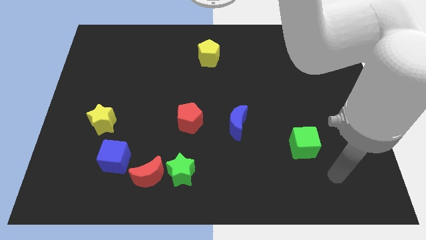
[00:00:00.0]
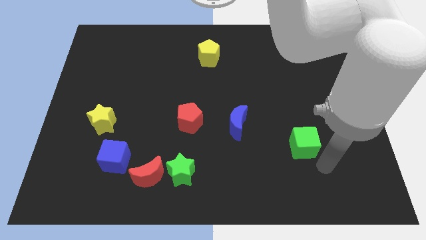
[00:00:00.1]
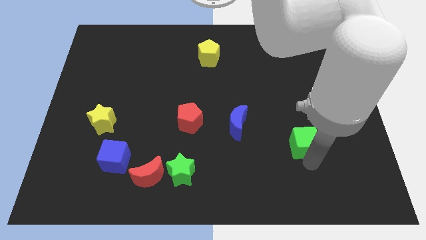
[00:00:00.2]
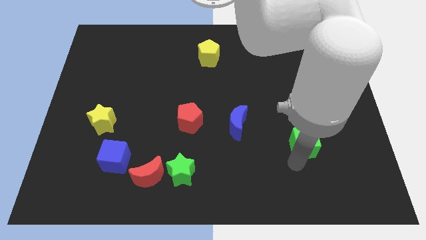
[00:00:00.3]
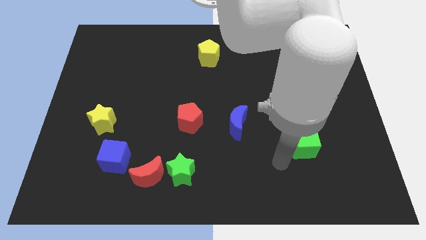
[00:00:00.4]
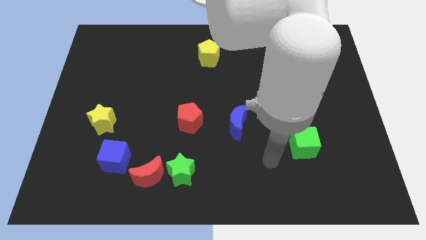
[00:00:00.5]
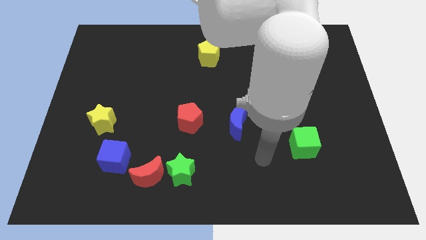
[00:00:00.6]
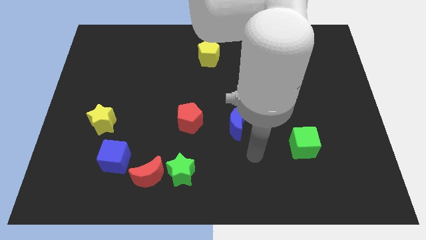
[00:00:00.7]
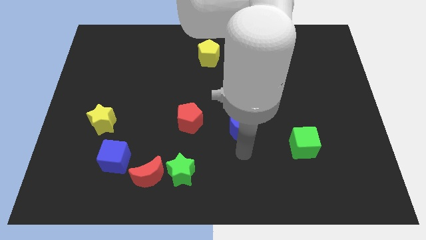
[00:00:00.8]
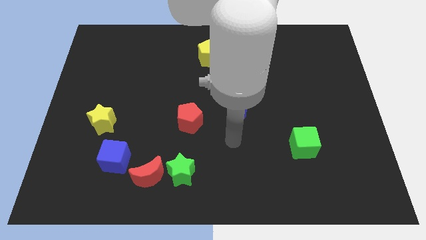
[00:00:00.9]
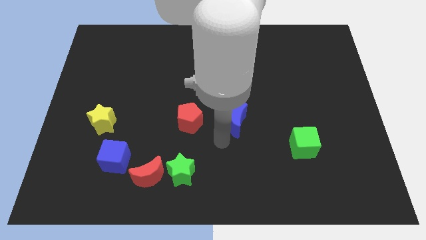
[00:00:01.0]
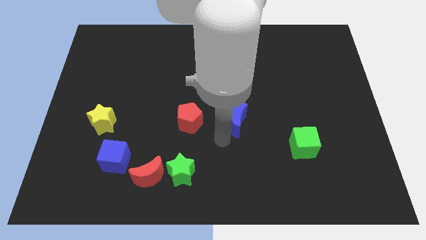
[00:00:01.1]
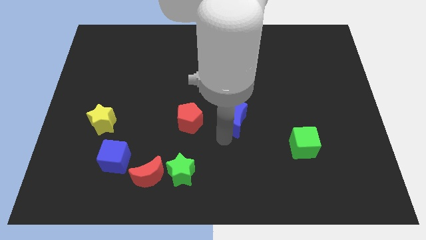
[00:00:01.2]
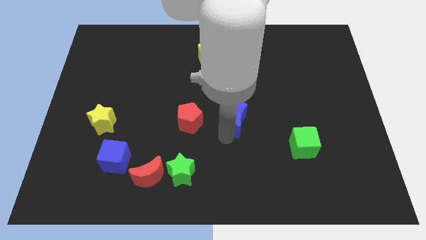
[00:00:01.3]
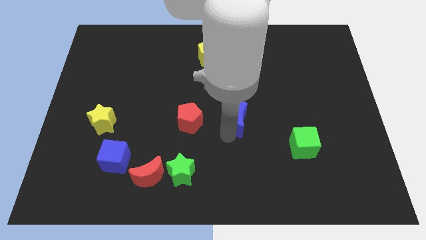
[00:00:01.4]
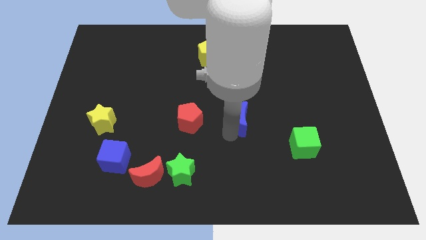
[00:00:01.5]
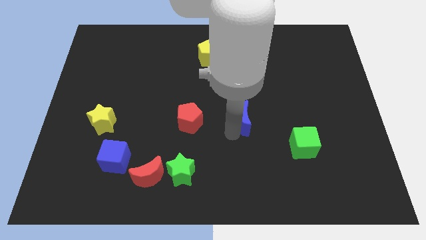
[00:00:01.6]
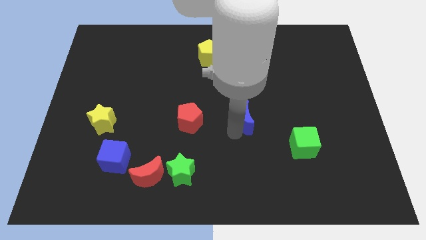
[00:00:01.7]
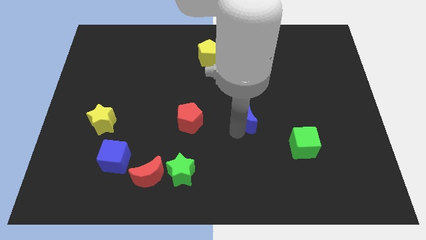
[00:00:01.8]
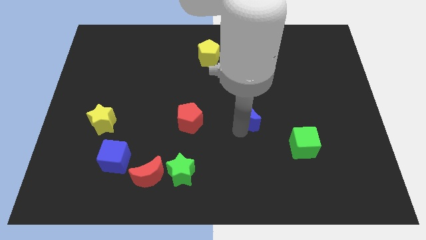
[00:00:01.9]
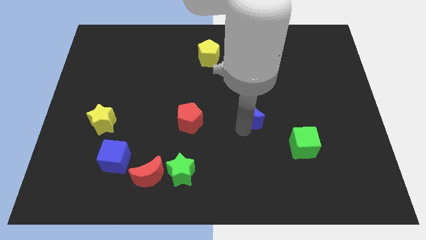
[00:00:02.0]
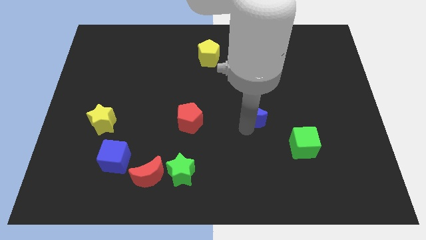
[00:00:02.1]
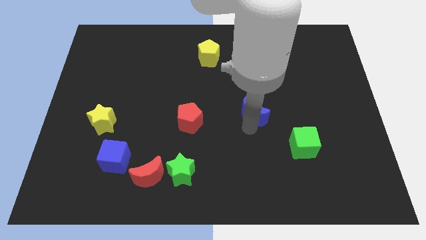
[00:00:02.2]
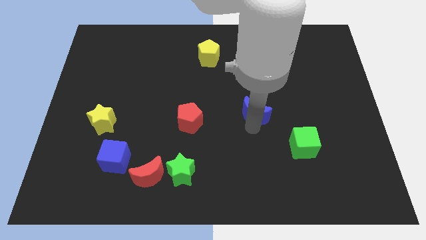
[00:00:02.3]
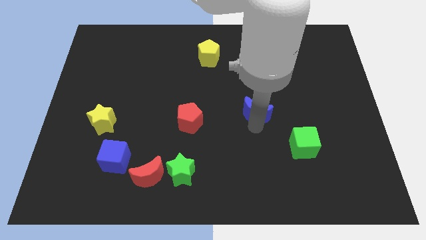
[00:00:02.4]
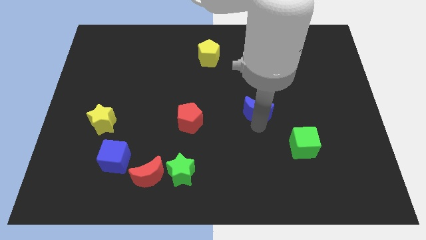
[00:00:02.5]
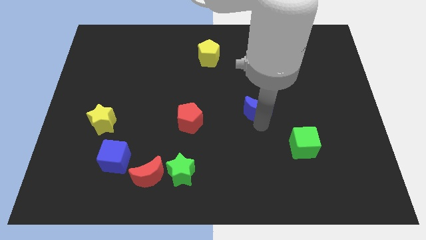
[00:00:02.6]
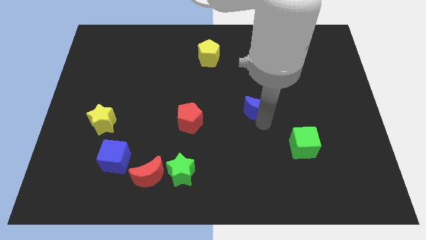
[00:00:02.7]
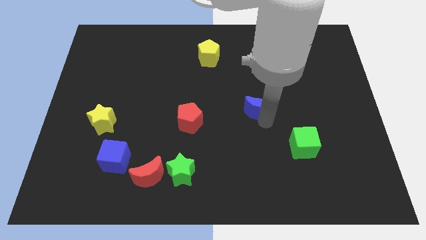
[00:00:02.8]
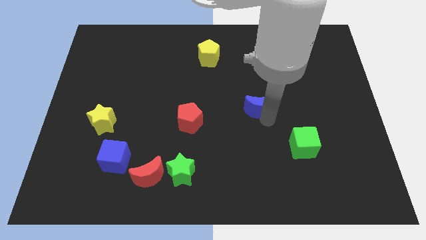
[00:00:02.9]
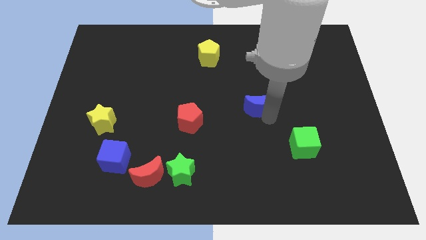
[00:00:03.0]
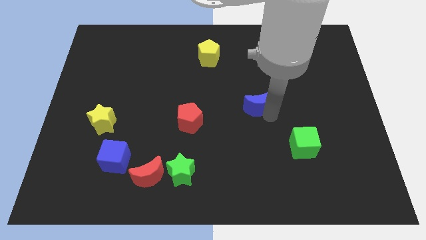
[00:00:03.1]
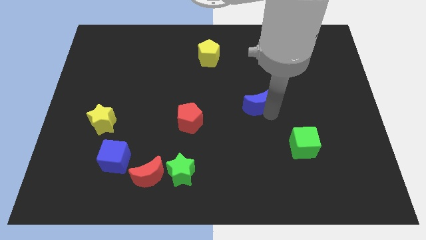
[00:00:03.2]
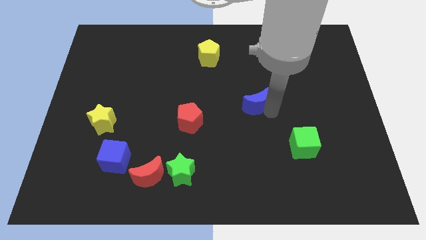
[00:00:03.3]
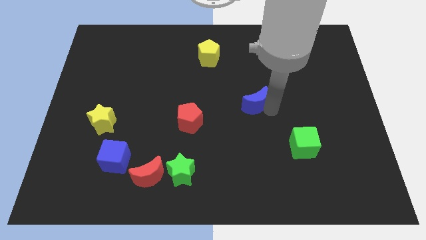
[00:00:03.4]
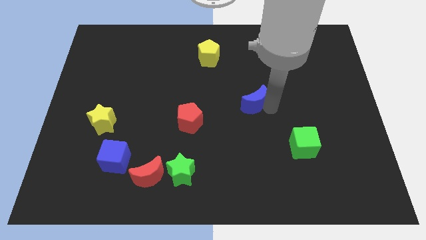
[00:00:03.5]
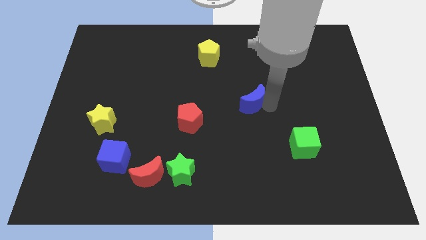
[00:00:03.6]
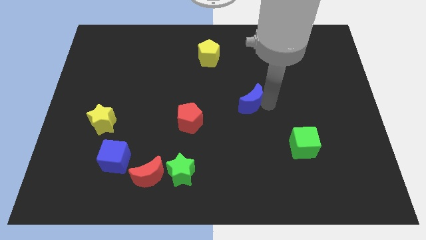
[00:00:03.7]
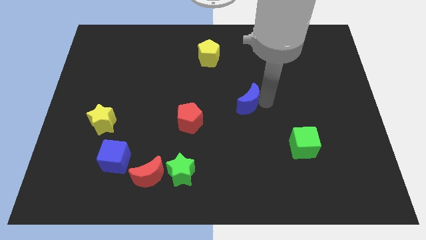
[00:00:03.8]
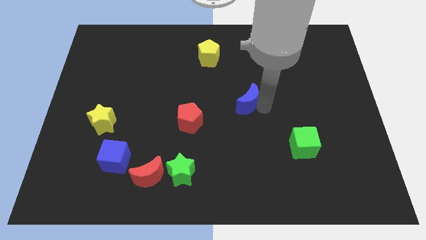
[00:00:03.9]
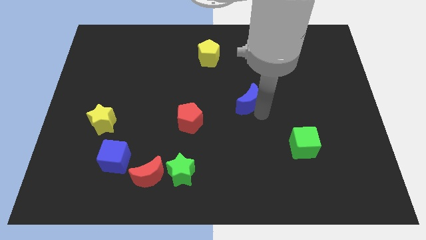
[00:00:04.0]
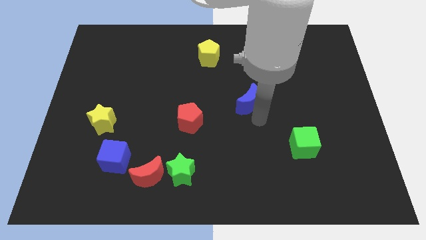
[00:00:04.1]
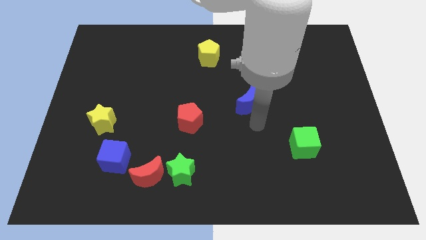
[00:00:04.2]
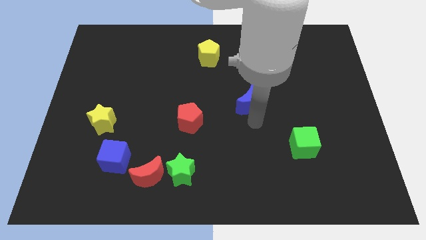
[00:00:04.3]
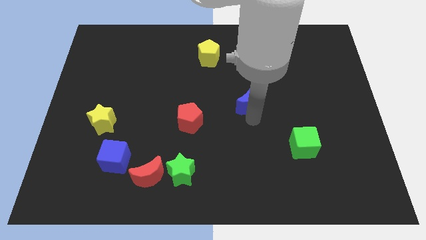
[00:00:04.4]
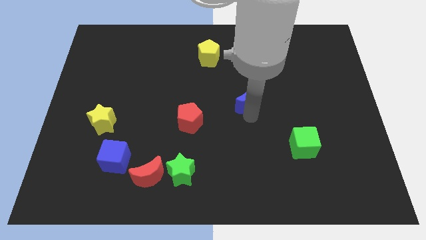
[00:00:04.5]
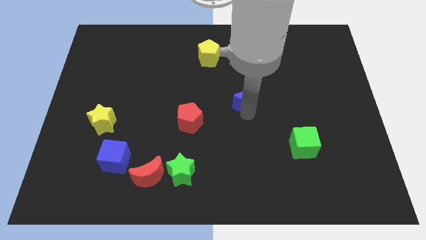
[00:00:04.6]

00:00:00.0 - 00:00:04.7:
push the blue moon up a little bit

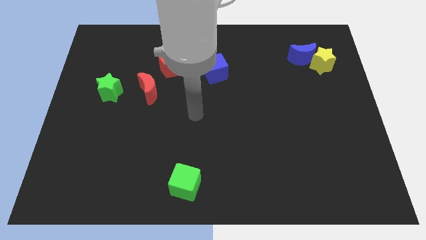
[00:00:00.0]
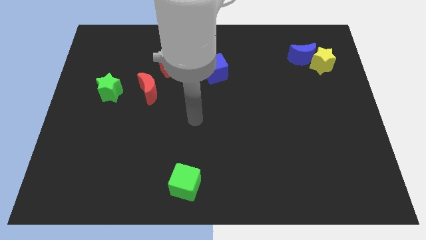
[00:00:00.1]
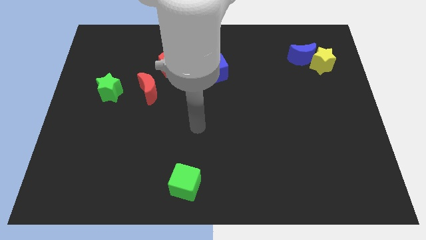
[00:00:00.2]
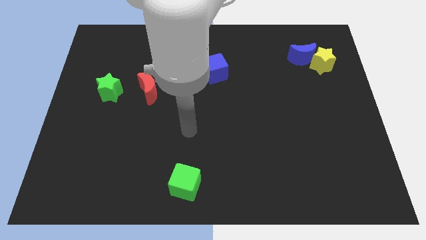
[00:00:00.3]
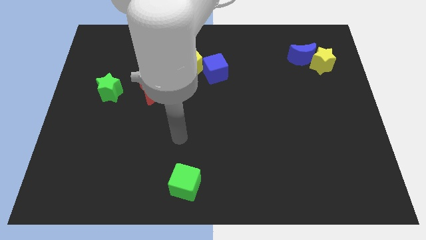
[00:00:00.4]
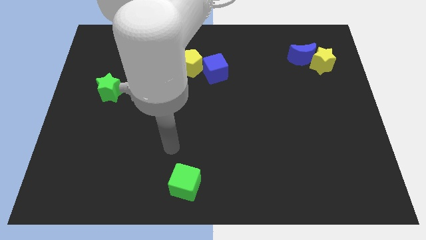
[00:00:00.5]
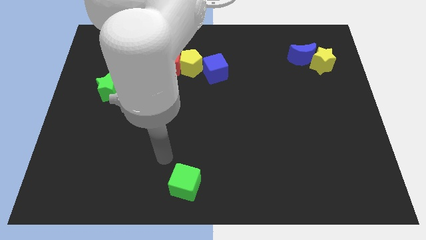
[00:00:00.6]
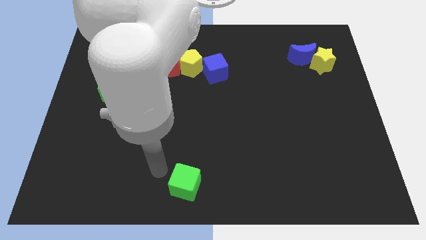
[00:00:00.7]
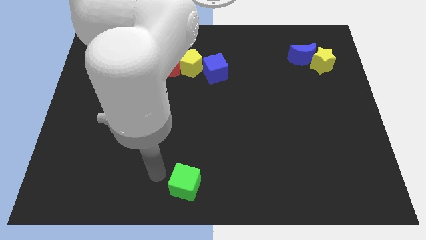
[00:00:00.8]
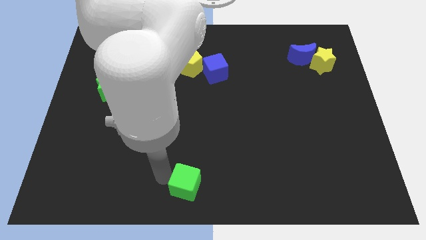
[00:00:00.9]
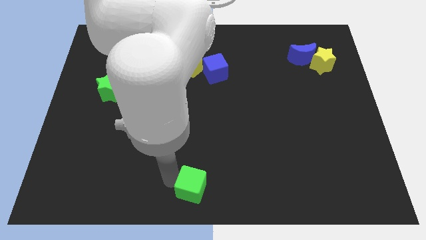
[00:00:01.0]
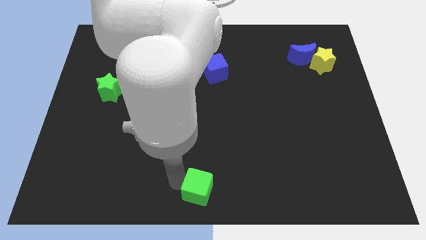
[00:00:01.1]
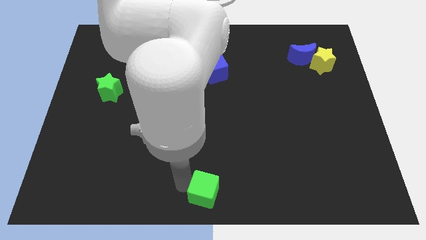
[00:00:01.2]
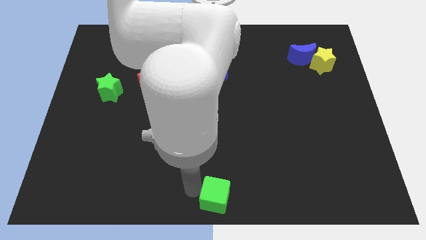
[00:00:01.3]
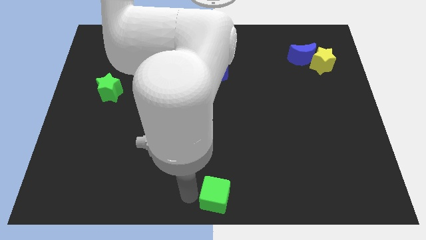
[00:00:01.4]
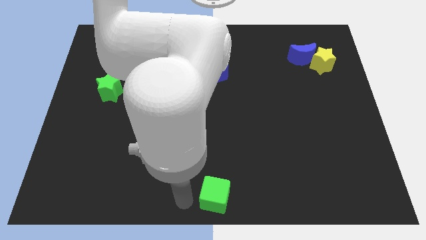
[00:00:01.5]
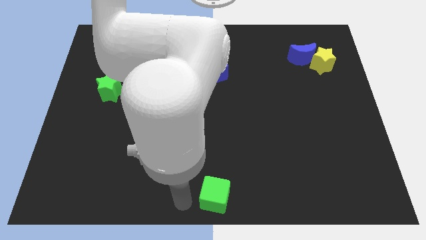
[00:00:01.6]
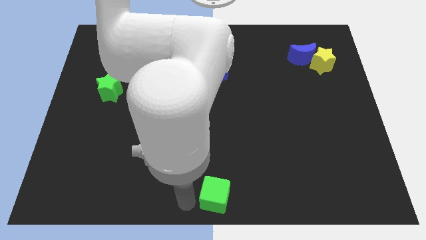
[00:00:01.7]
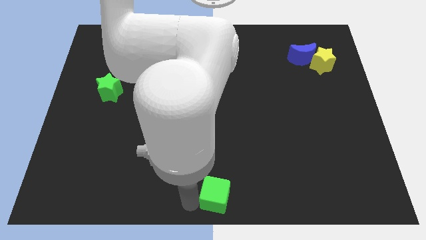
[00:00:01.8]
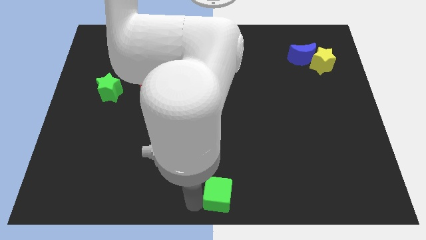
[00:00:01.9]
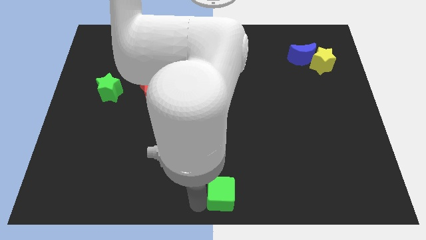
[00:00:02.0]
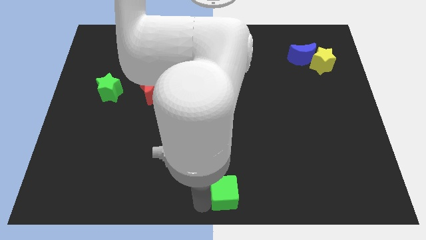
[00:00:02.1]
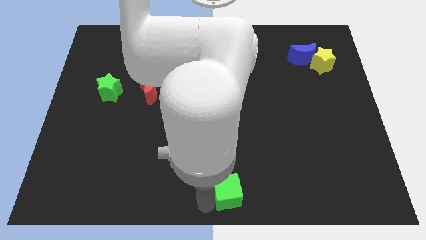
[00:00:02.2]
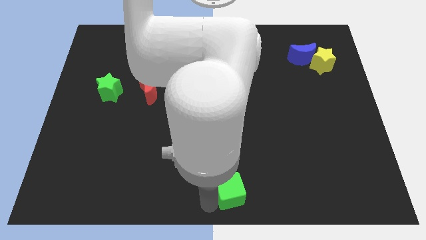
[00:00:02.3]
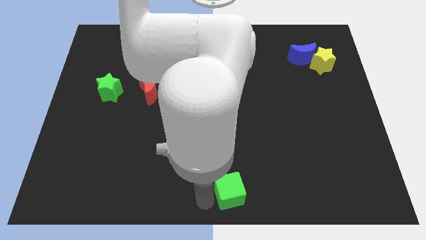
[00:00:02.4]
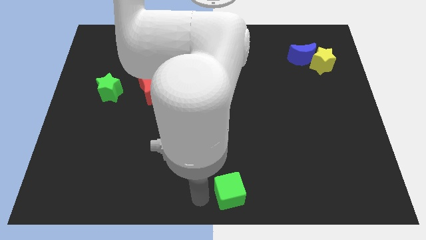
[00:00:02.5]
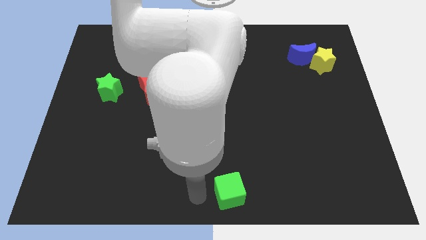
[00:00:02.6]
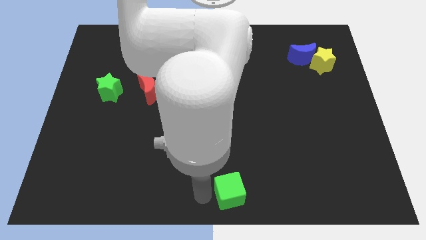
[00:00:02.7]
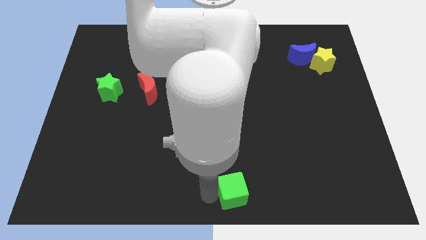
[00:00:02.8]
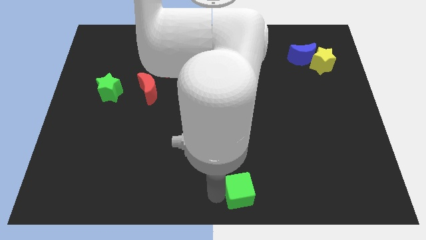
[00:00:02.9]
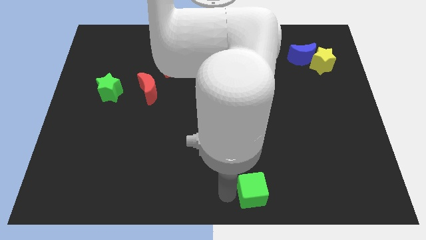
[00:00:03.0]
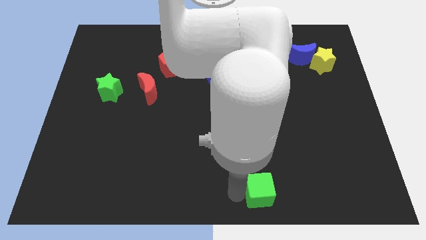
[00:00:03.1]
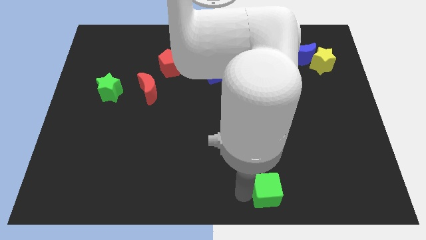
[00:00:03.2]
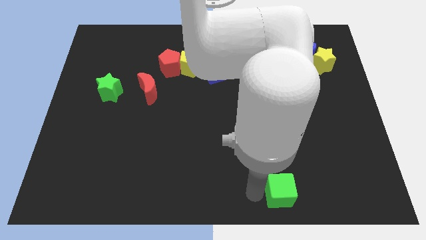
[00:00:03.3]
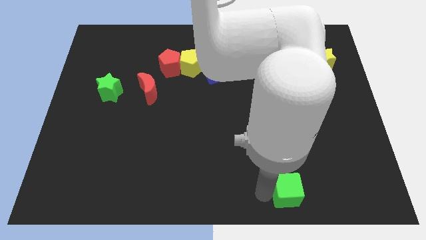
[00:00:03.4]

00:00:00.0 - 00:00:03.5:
slide the green cube to the right
